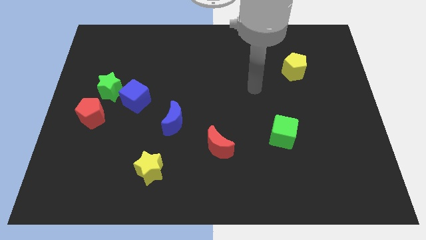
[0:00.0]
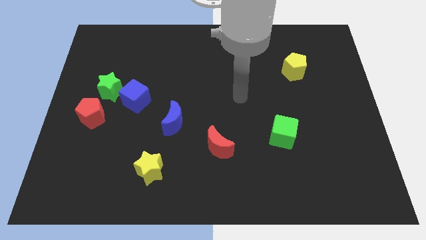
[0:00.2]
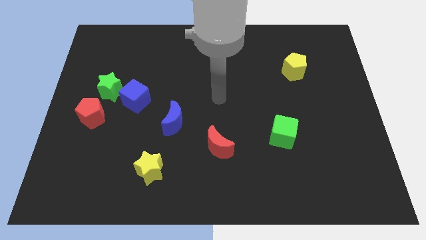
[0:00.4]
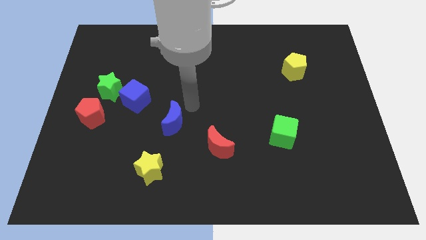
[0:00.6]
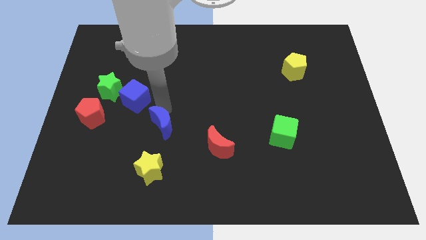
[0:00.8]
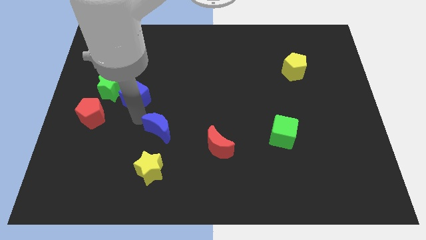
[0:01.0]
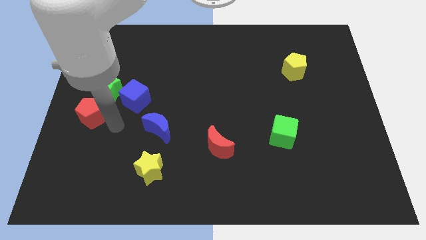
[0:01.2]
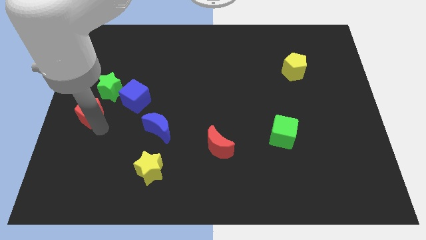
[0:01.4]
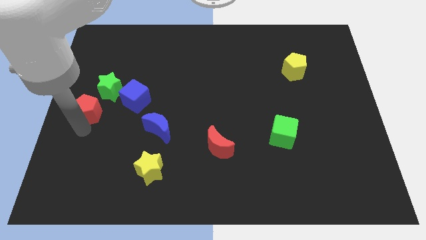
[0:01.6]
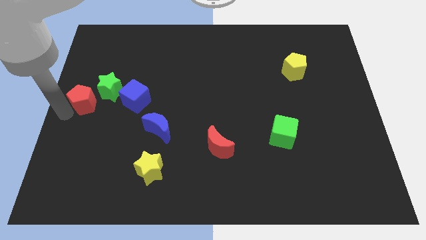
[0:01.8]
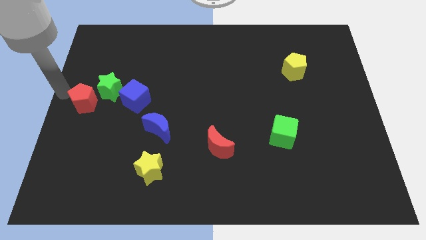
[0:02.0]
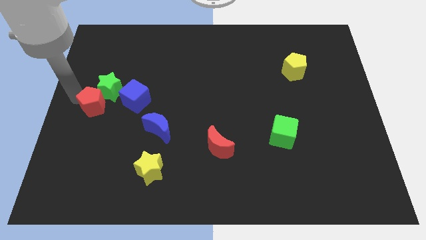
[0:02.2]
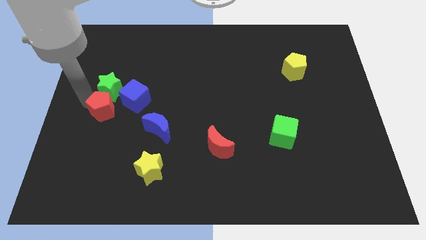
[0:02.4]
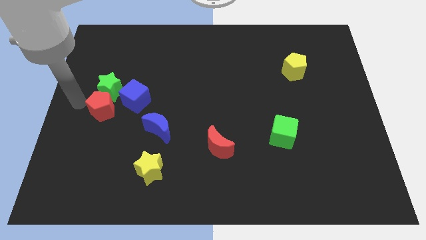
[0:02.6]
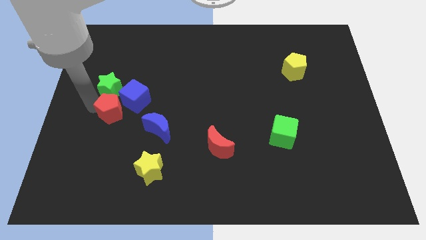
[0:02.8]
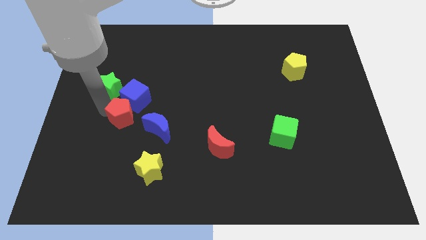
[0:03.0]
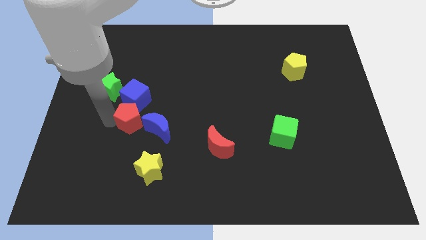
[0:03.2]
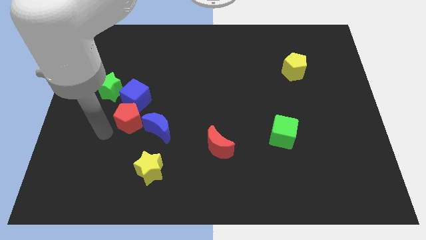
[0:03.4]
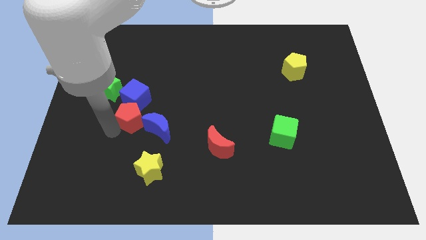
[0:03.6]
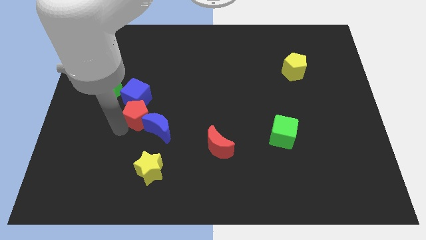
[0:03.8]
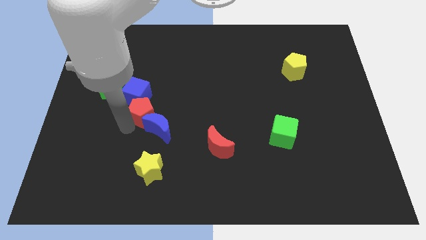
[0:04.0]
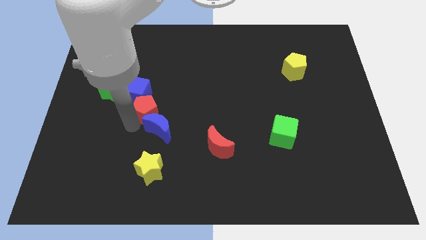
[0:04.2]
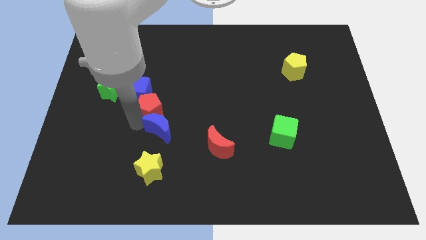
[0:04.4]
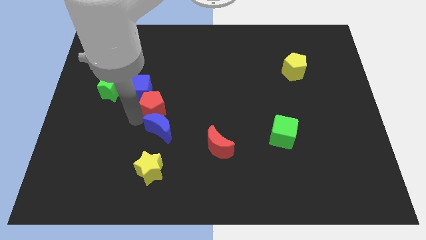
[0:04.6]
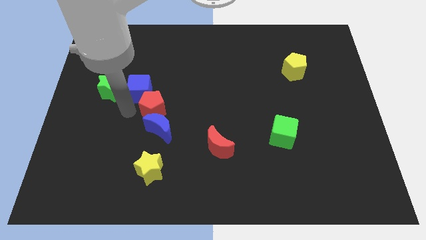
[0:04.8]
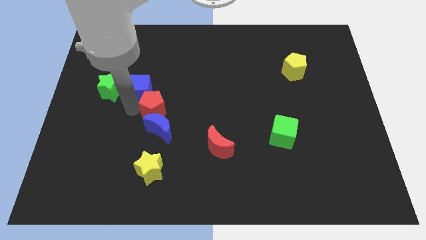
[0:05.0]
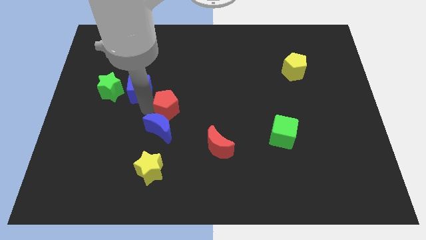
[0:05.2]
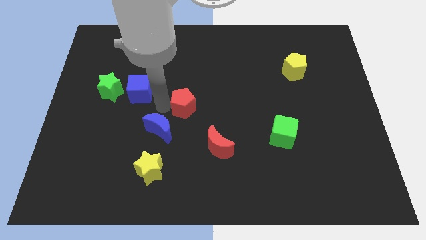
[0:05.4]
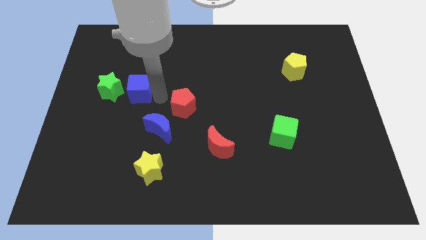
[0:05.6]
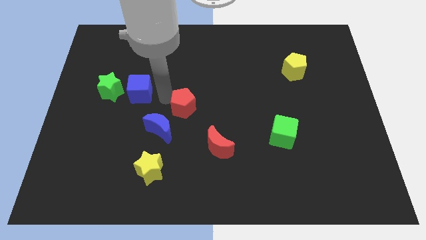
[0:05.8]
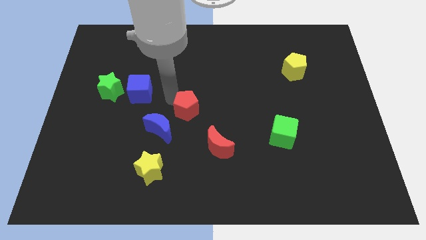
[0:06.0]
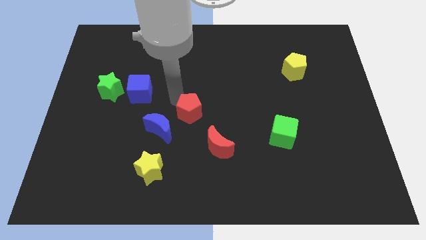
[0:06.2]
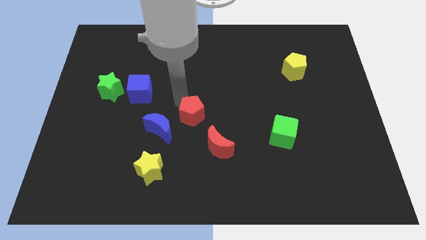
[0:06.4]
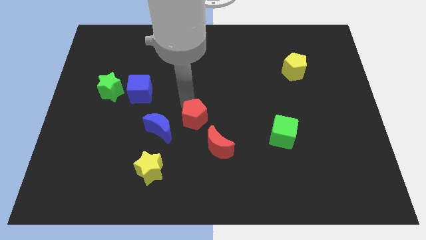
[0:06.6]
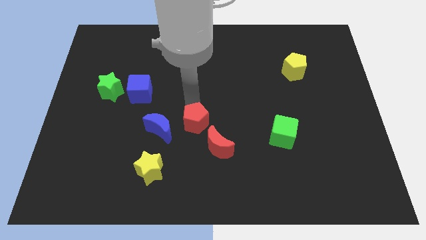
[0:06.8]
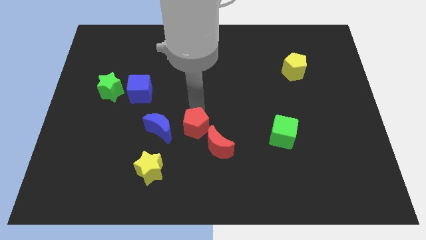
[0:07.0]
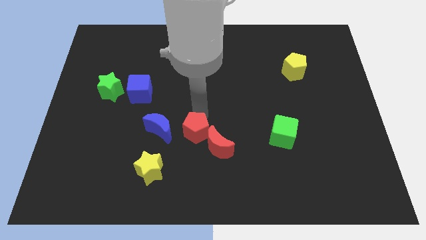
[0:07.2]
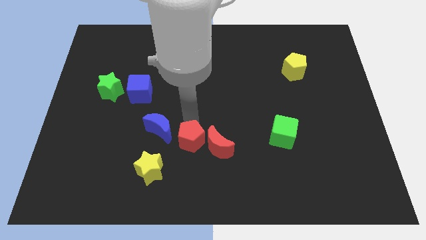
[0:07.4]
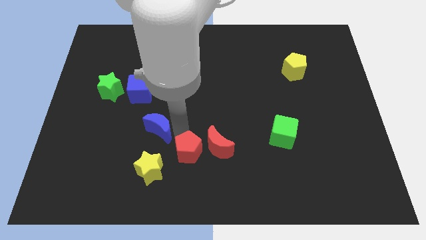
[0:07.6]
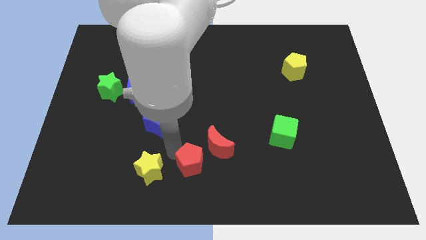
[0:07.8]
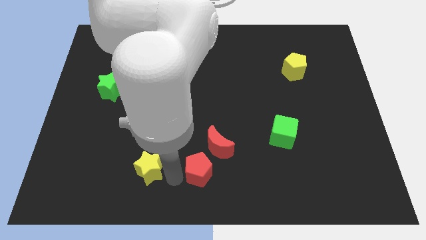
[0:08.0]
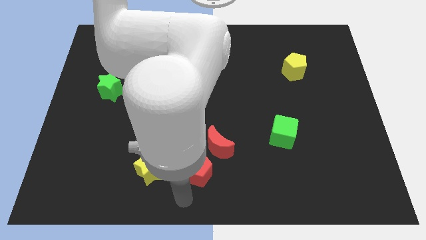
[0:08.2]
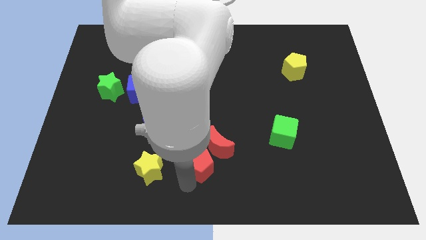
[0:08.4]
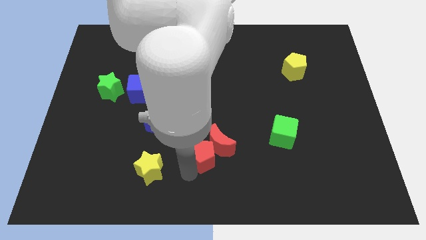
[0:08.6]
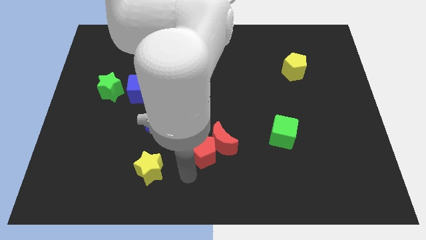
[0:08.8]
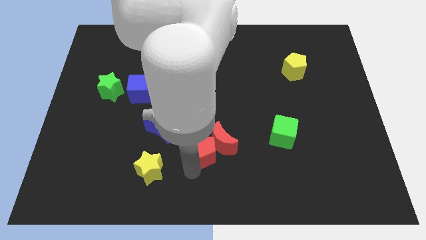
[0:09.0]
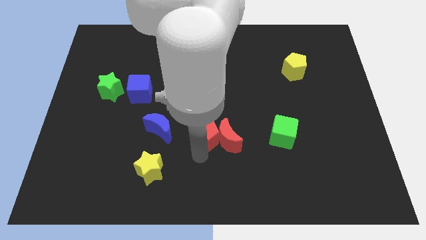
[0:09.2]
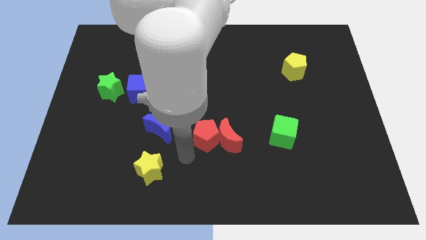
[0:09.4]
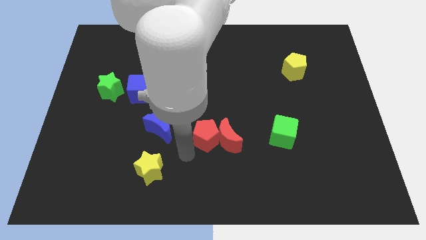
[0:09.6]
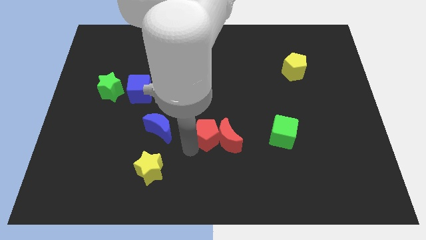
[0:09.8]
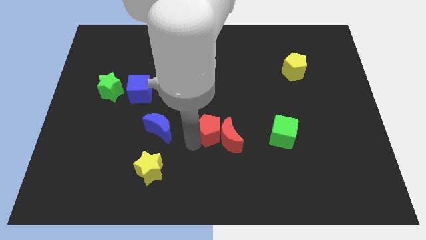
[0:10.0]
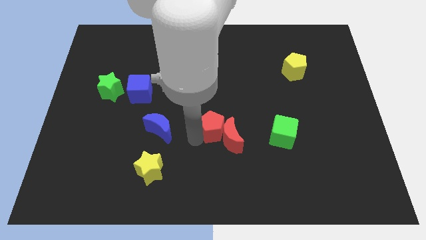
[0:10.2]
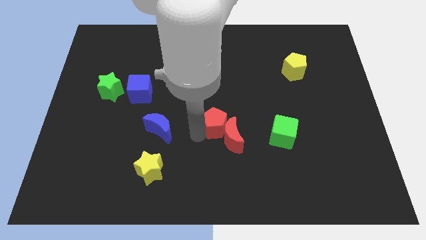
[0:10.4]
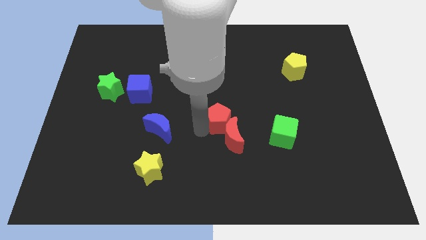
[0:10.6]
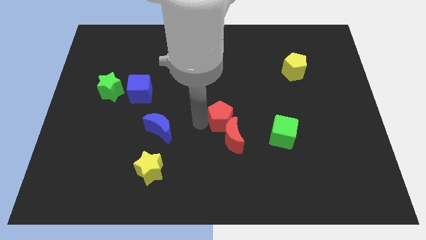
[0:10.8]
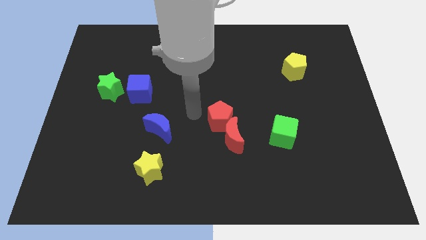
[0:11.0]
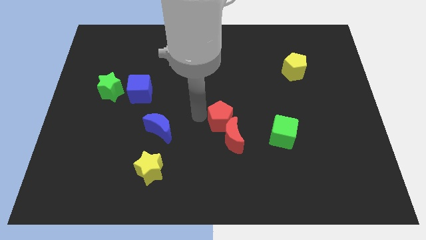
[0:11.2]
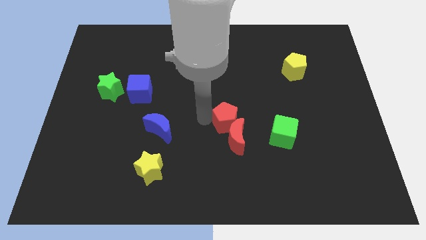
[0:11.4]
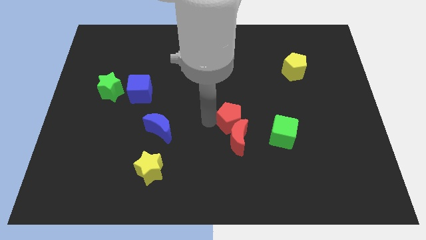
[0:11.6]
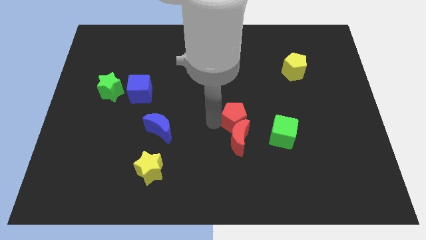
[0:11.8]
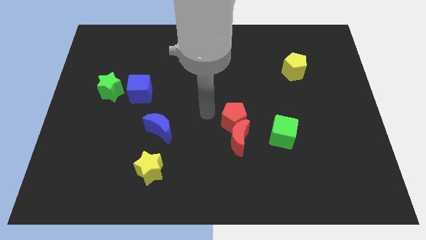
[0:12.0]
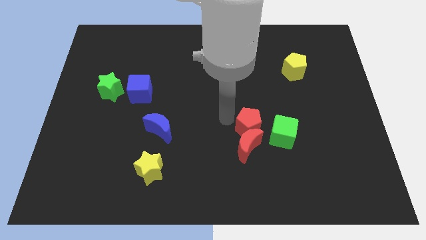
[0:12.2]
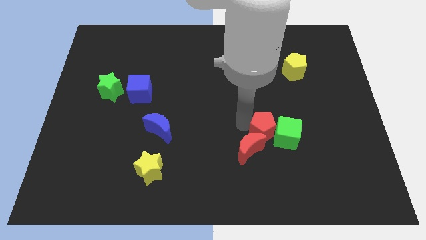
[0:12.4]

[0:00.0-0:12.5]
slide the red pentagon close to the green cube
